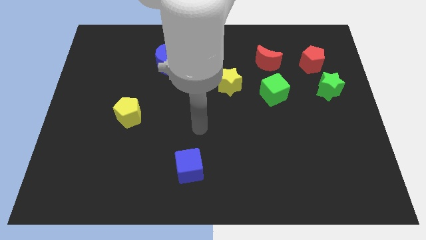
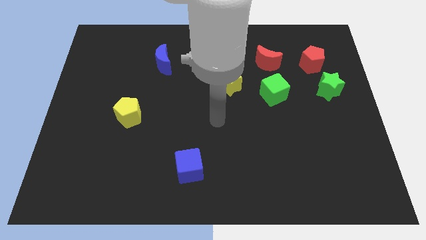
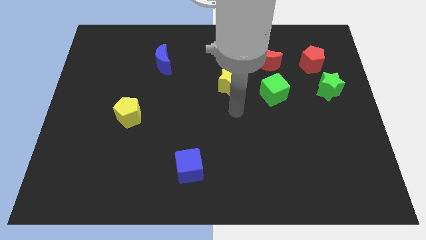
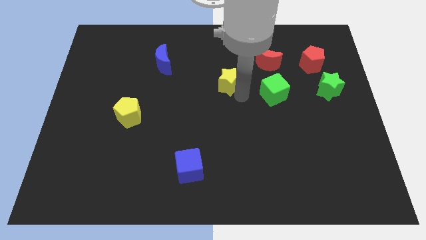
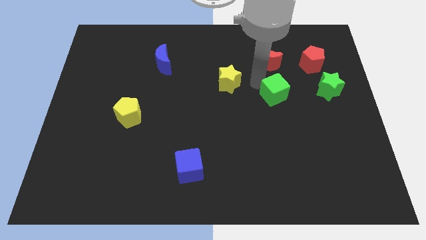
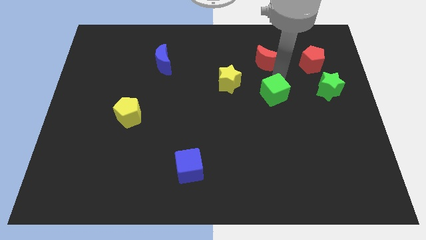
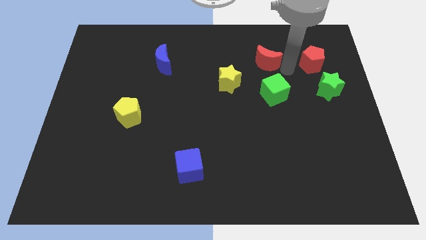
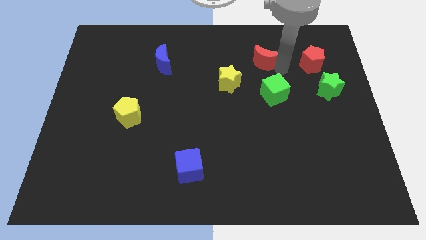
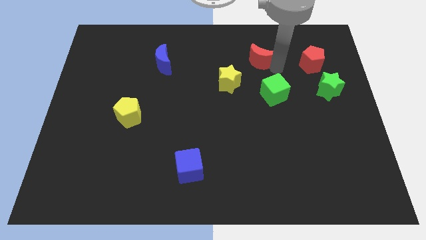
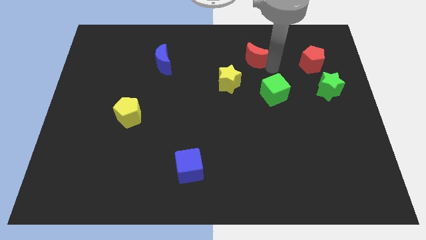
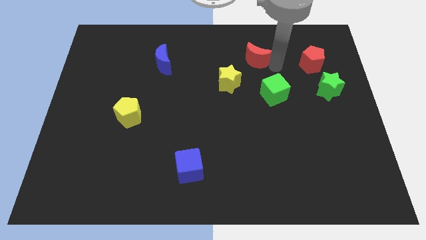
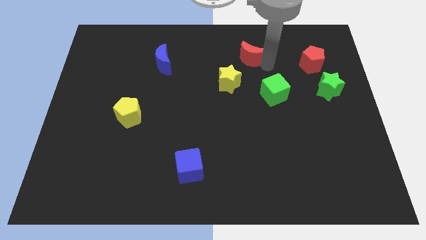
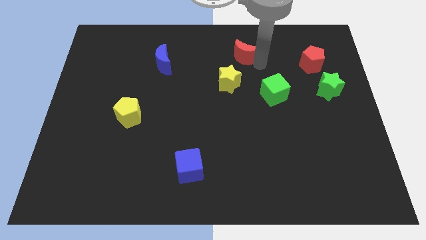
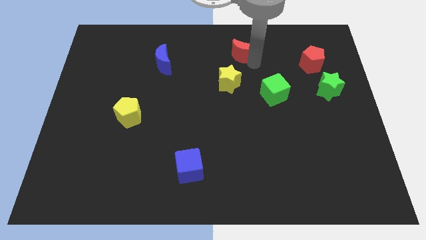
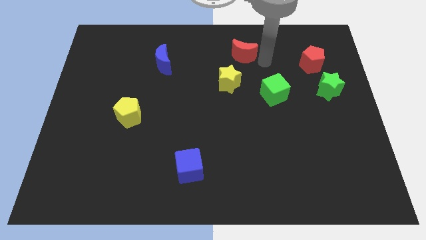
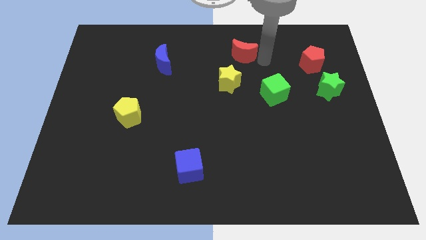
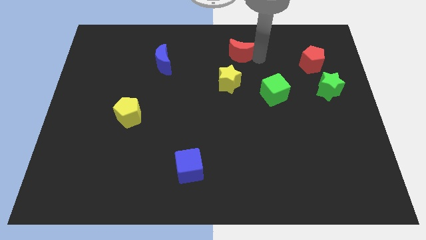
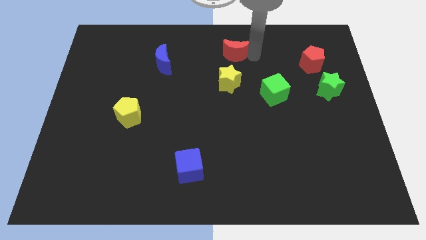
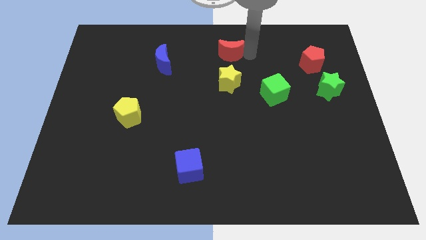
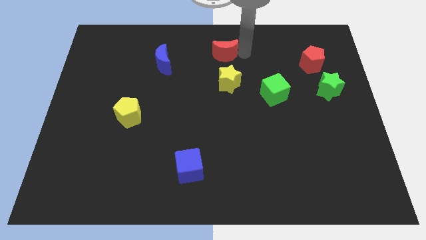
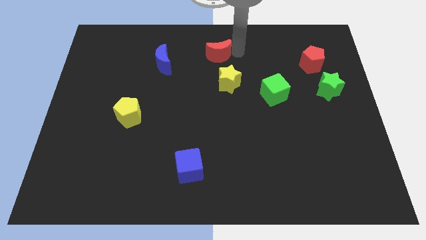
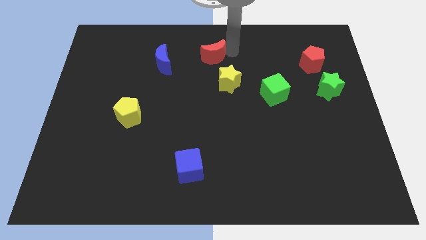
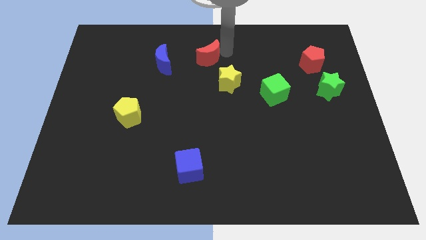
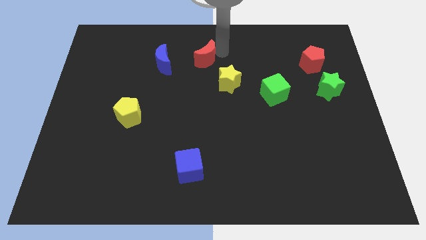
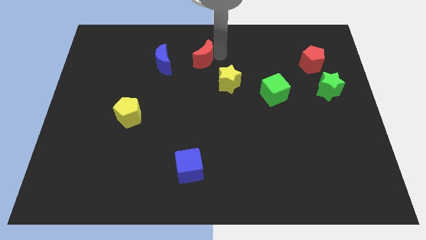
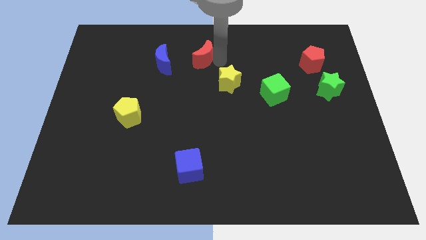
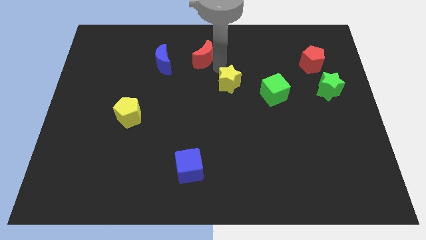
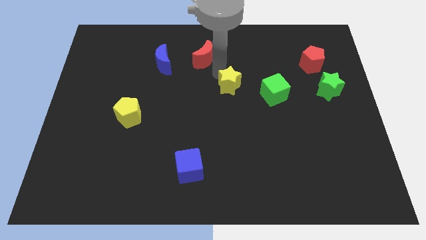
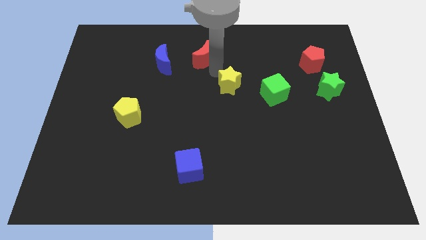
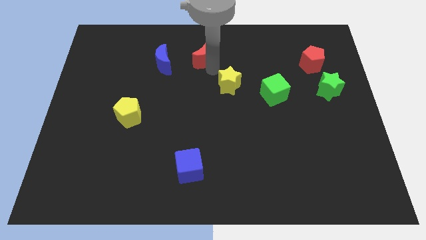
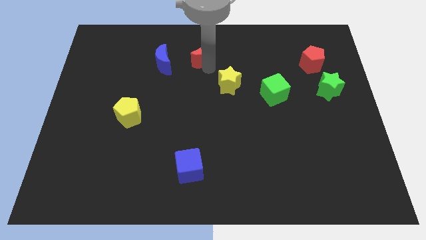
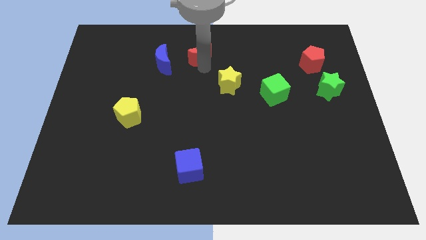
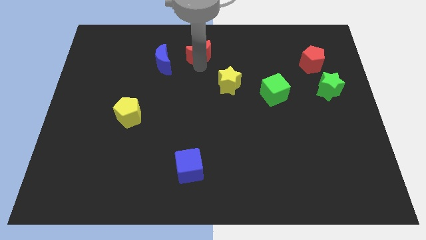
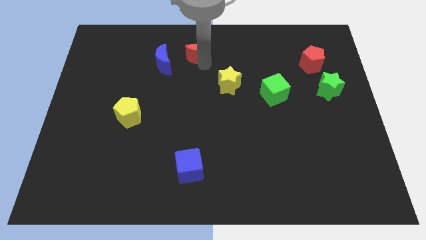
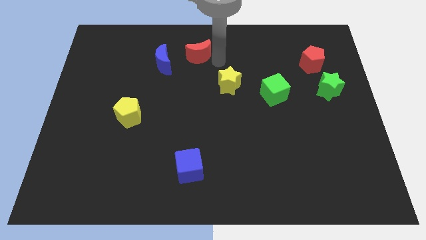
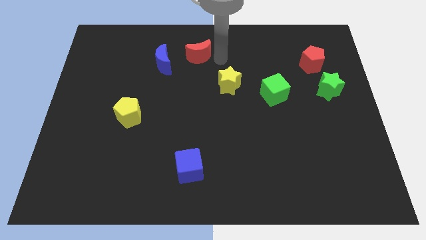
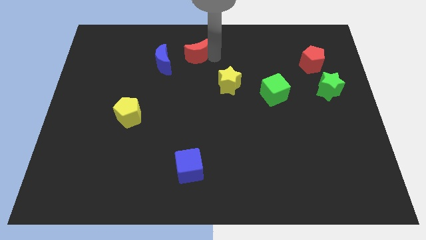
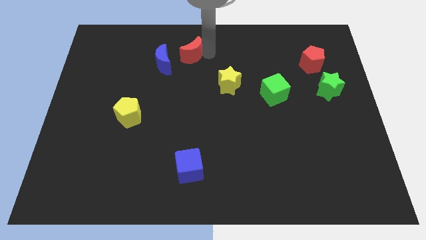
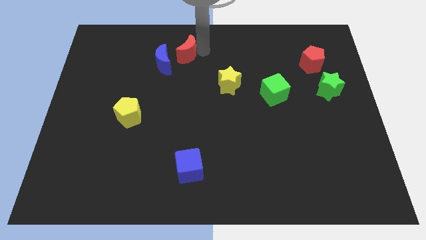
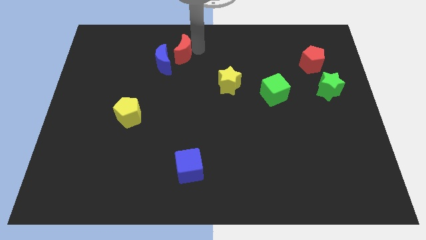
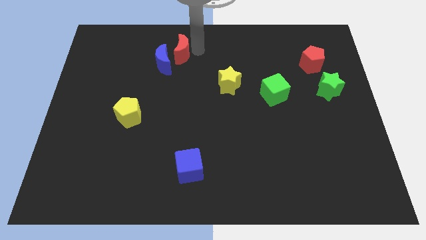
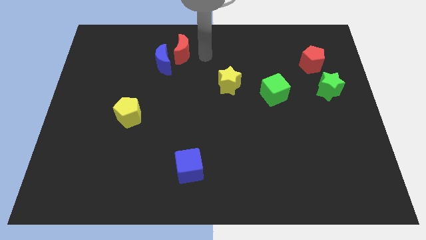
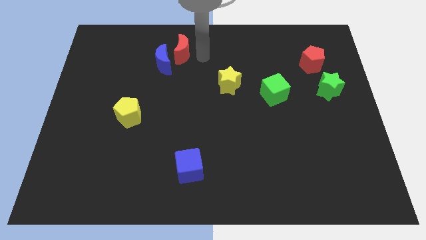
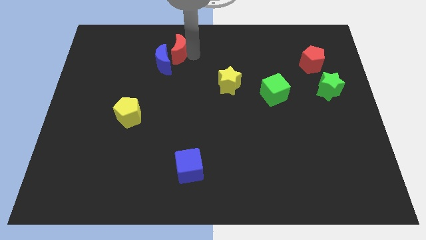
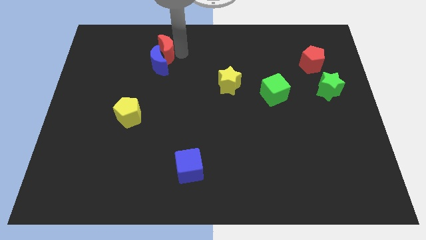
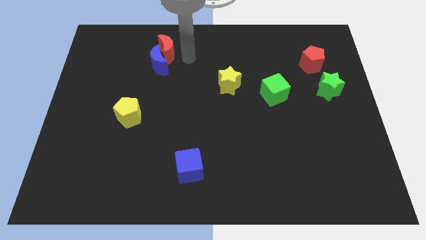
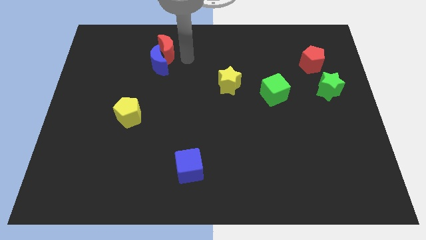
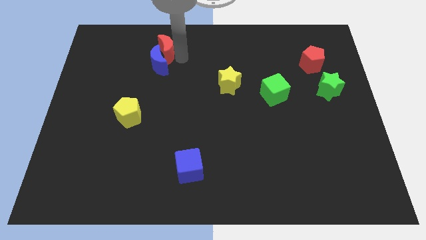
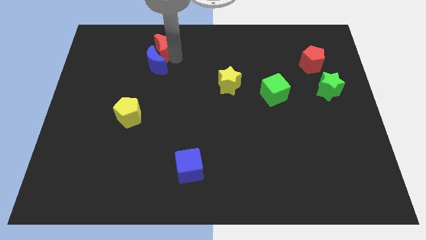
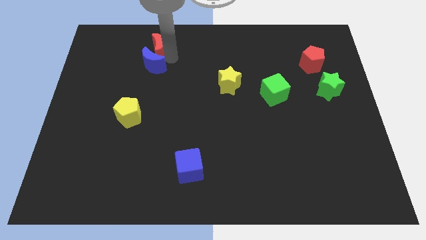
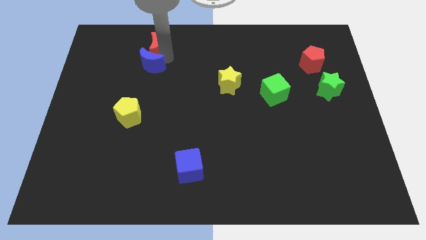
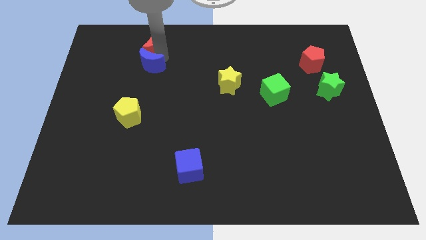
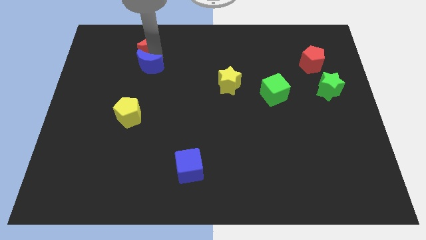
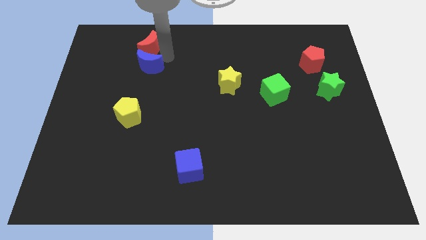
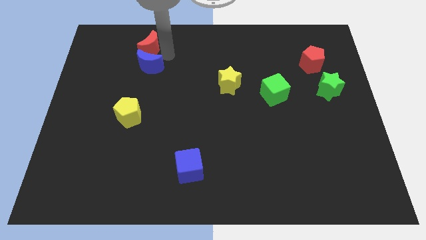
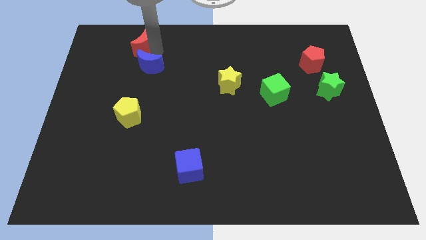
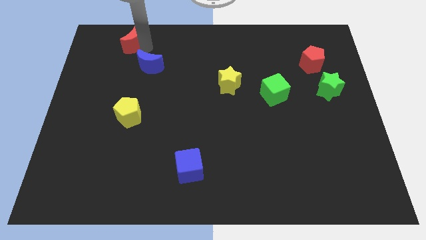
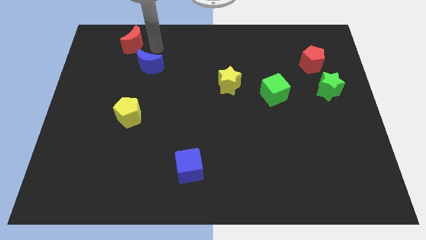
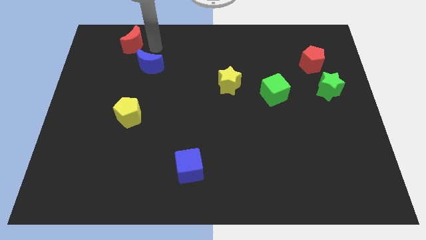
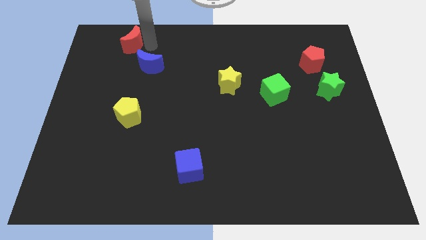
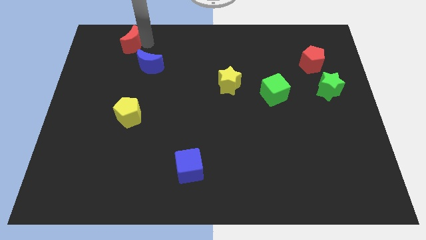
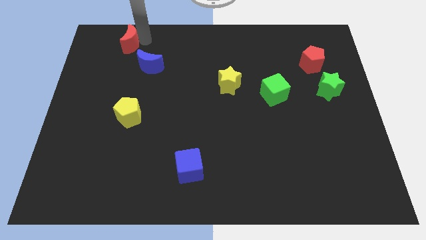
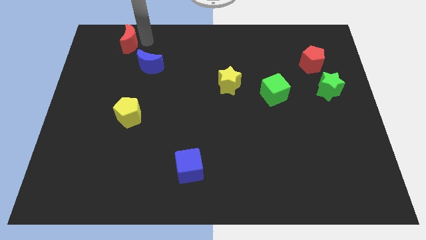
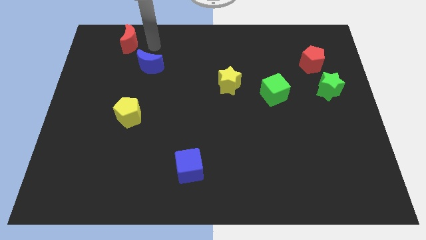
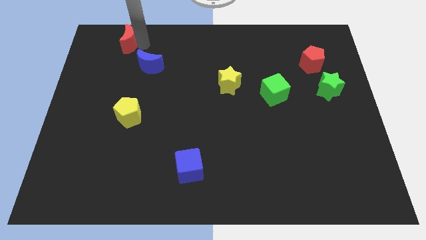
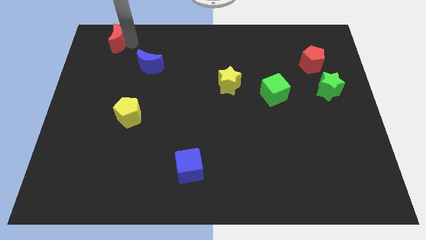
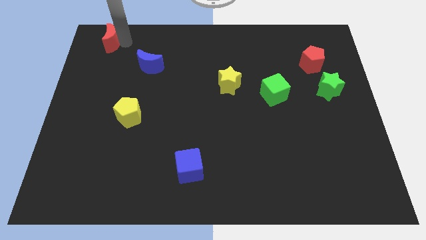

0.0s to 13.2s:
push the red moon to the top left
